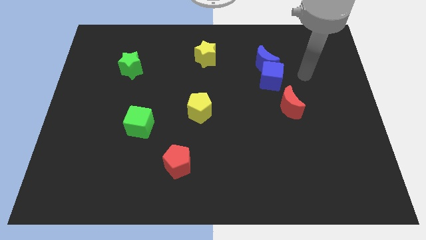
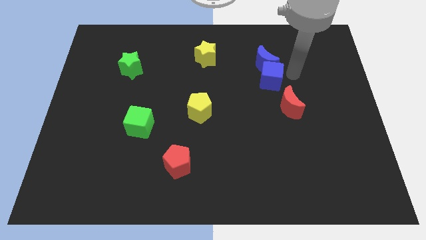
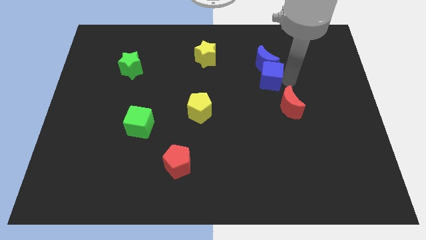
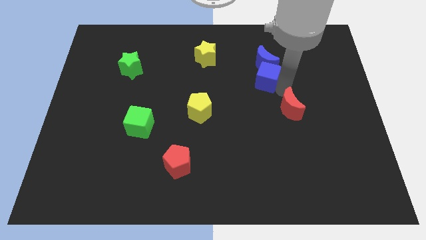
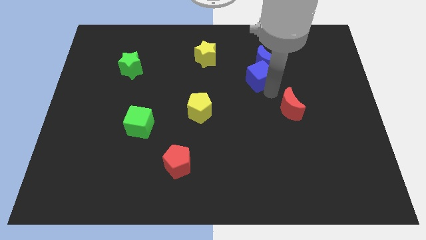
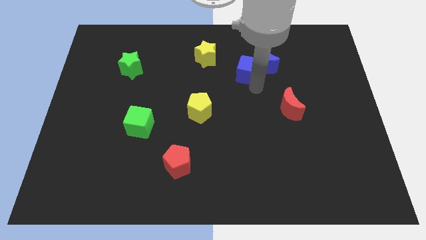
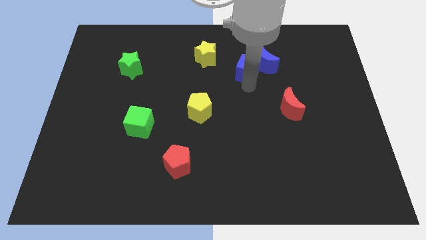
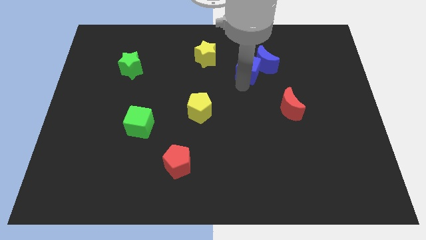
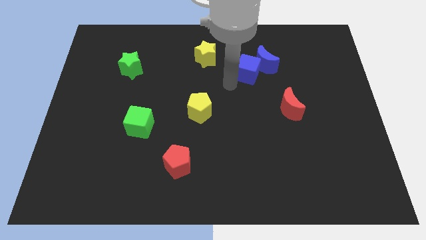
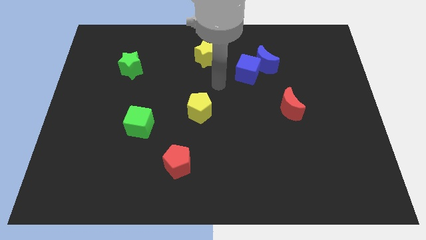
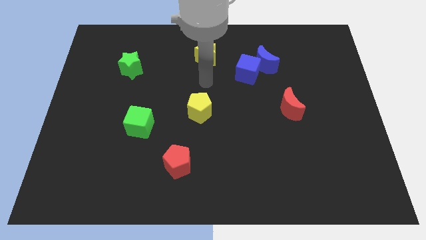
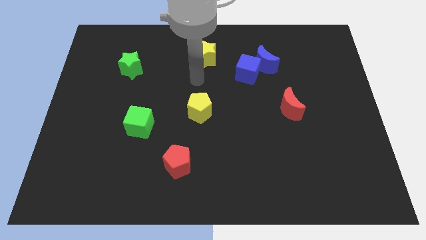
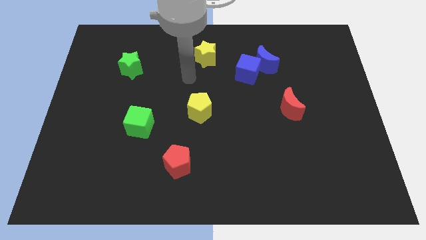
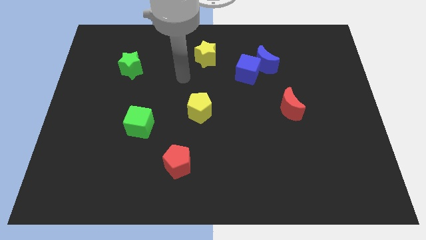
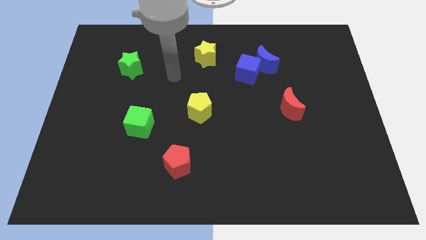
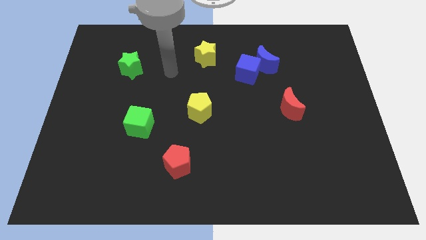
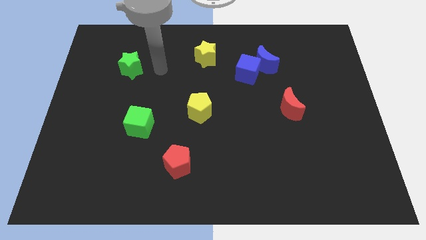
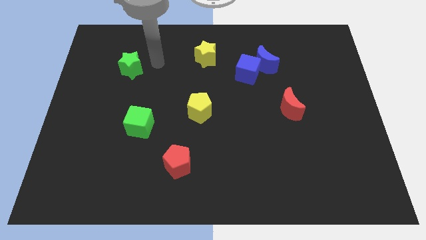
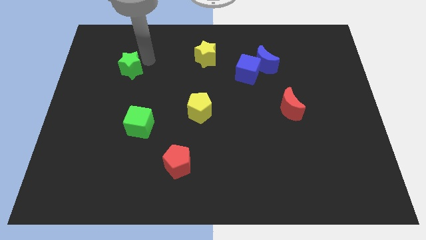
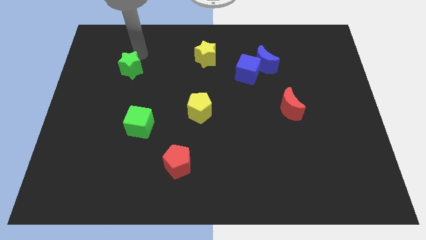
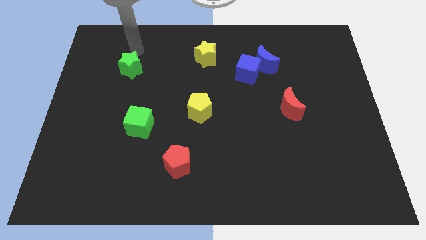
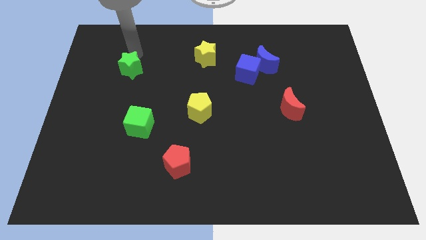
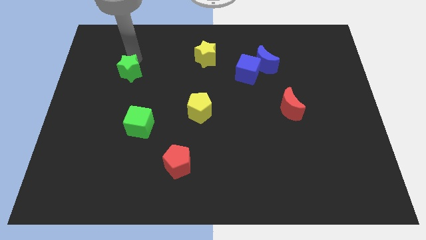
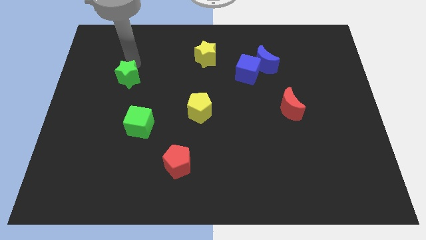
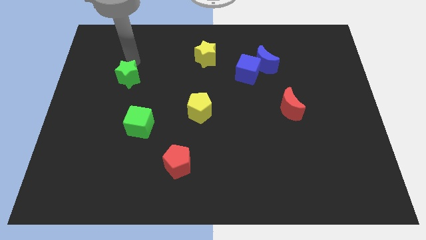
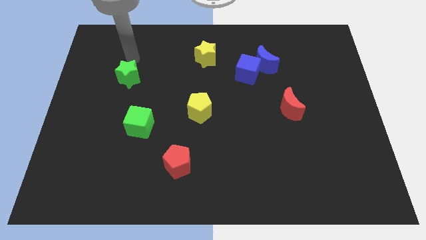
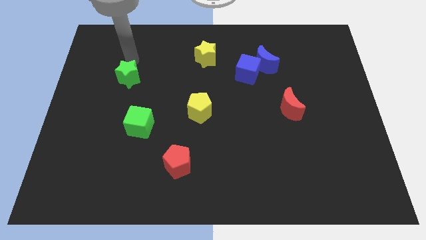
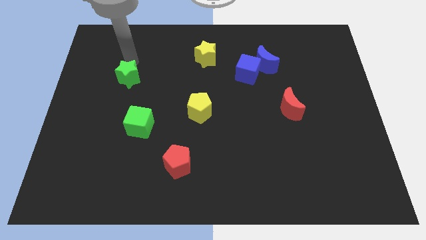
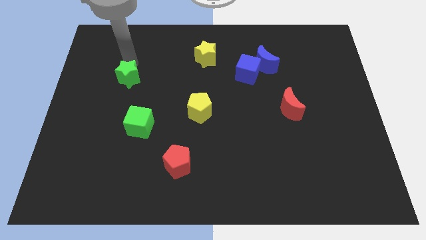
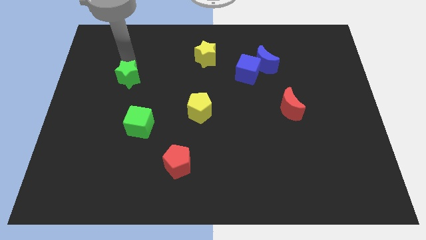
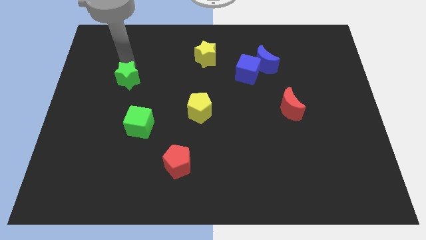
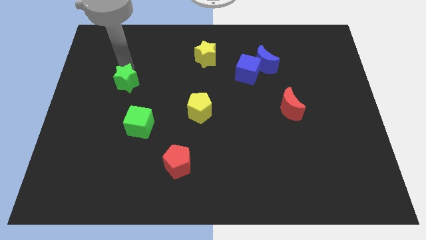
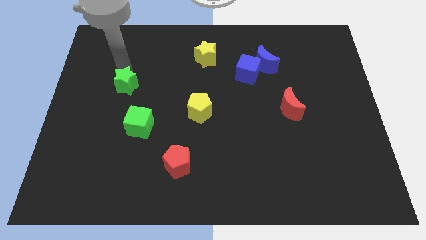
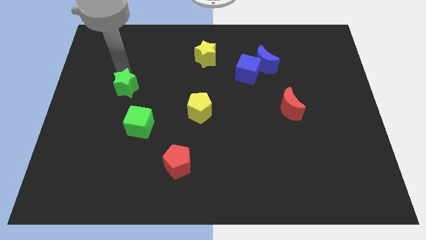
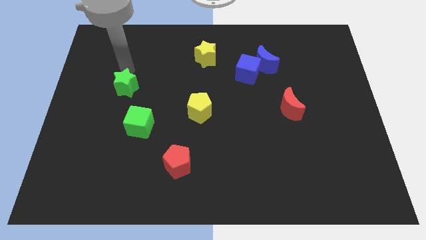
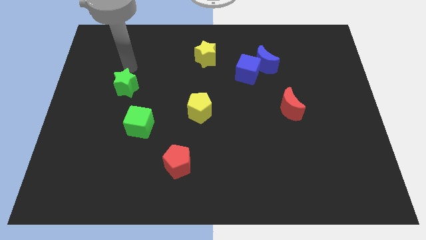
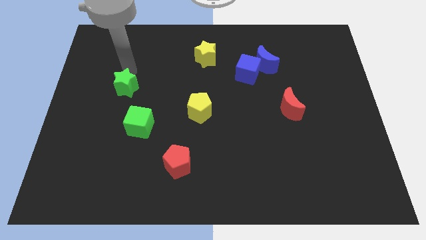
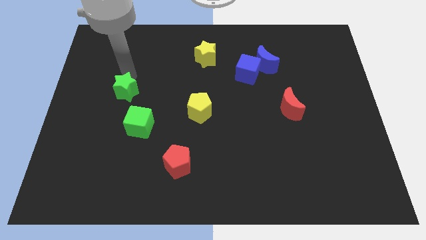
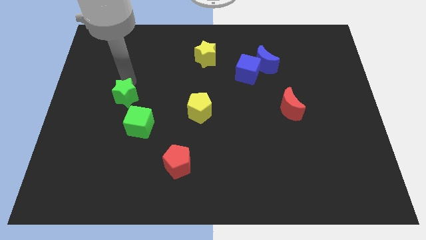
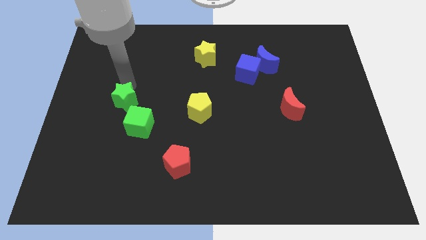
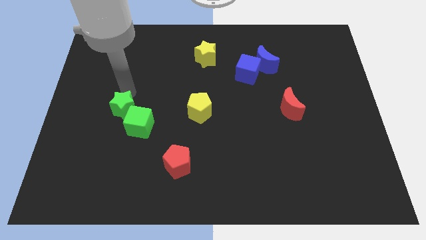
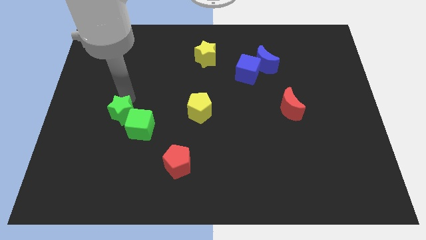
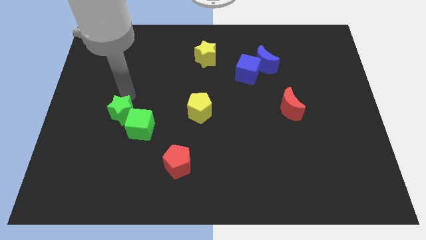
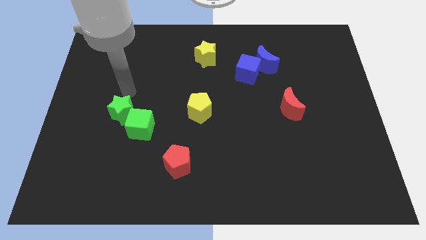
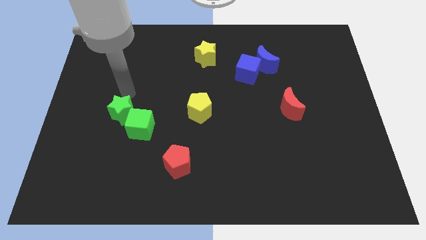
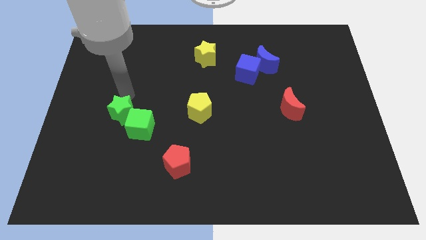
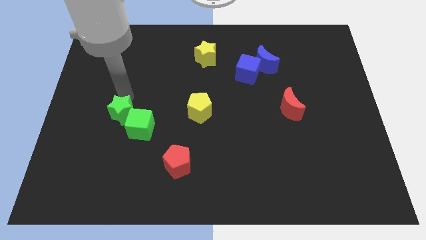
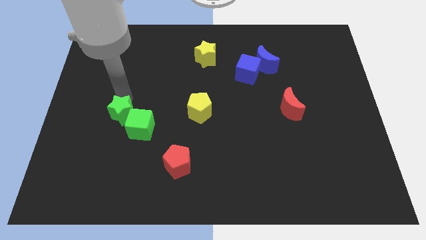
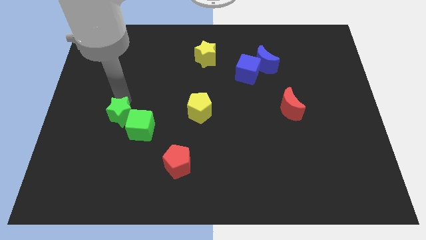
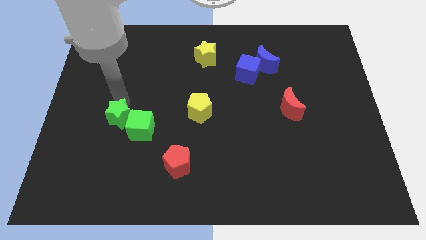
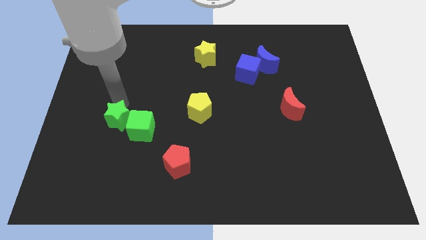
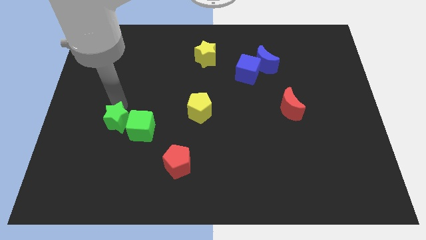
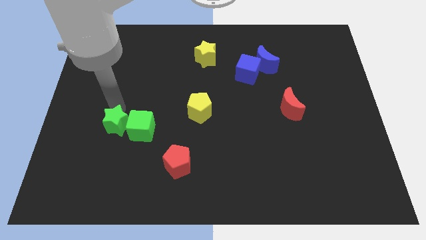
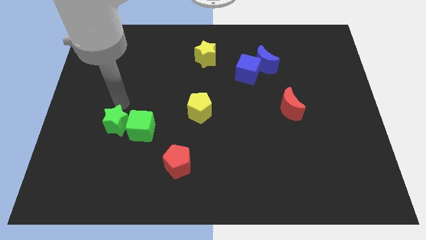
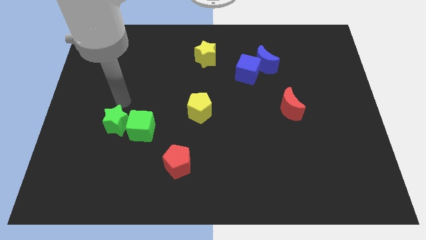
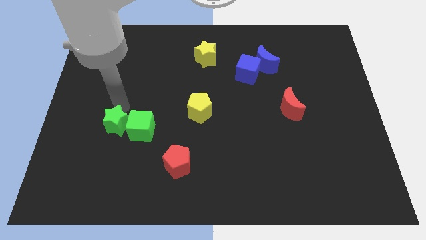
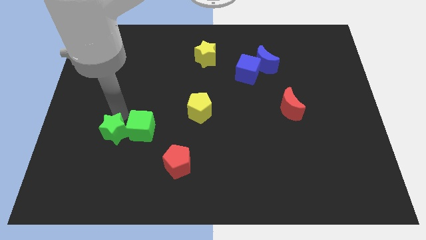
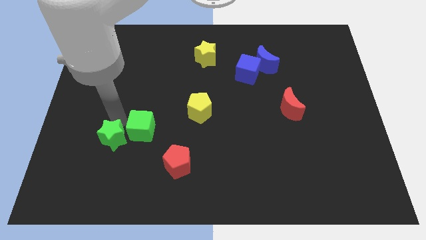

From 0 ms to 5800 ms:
move the green star downwards

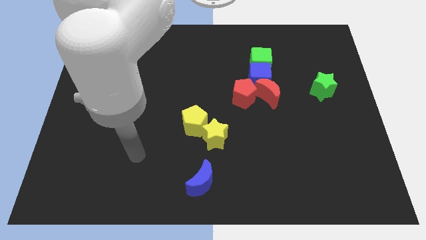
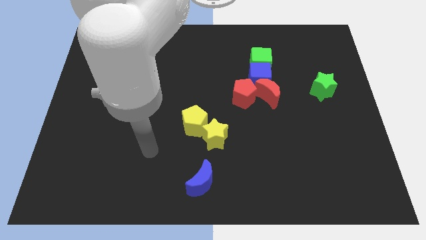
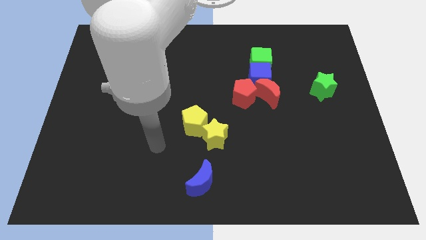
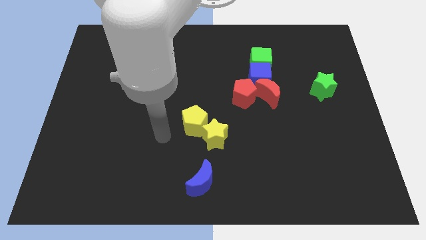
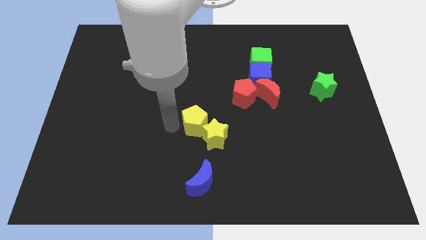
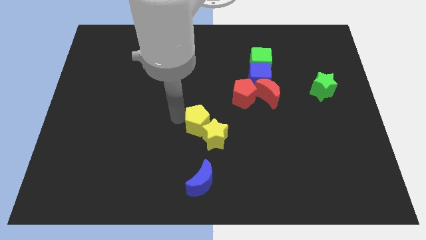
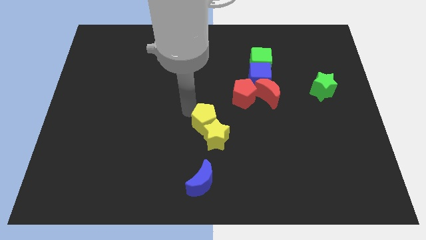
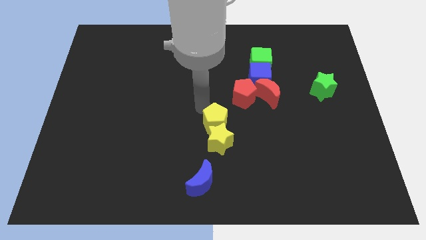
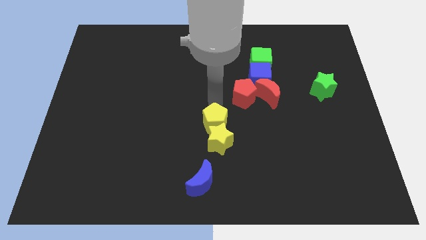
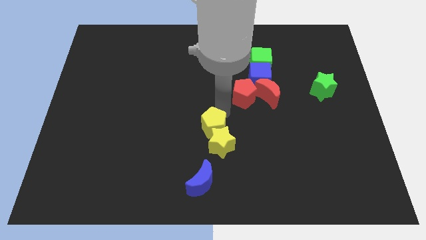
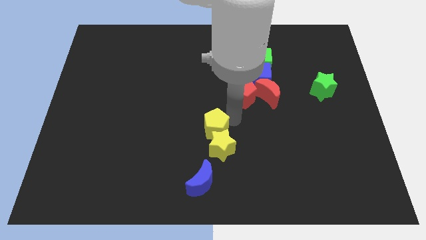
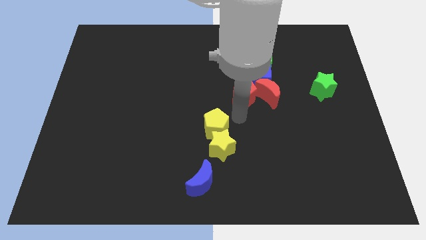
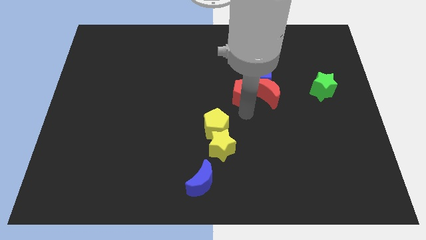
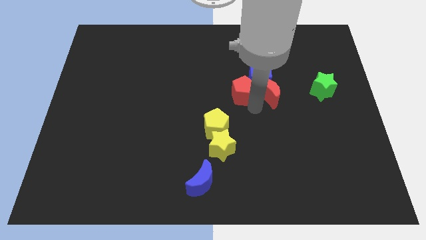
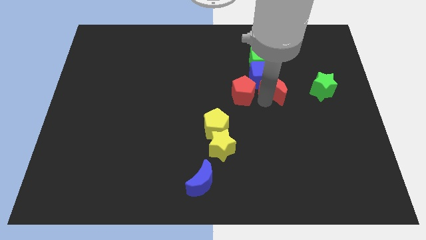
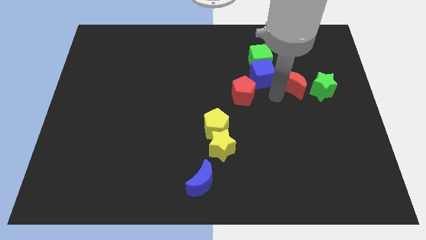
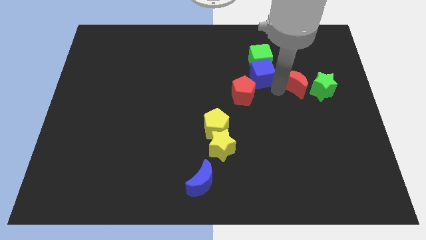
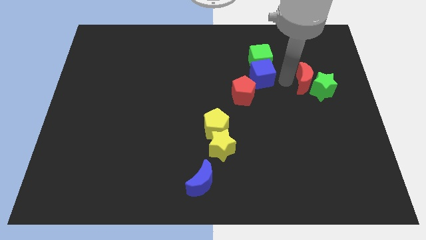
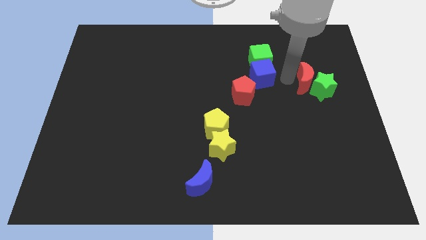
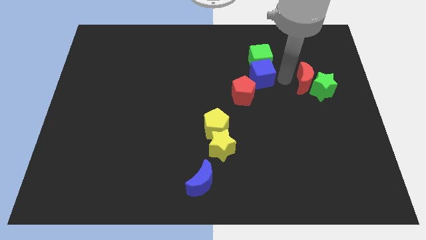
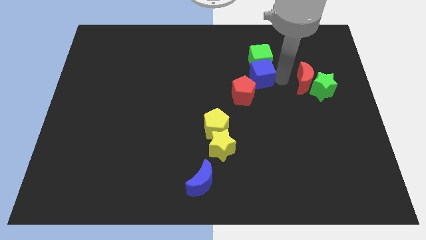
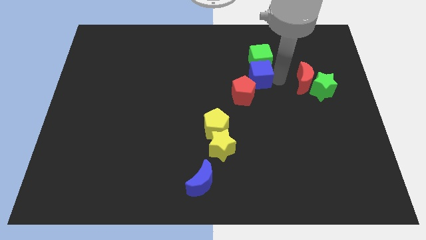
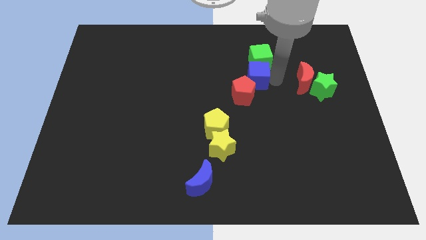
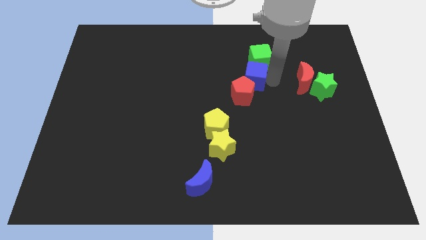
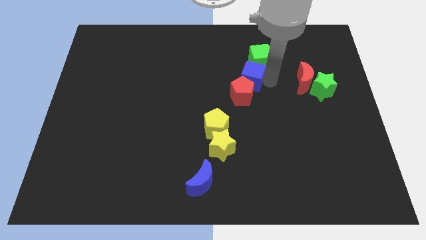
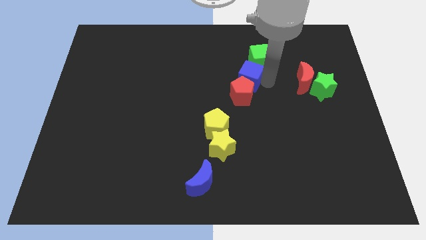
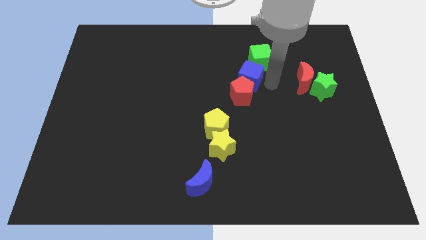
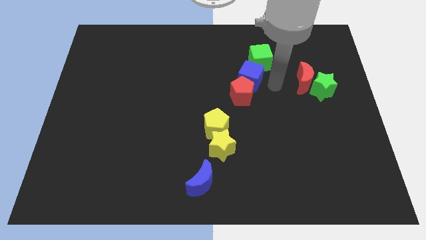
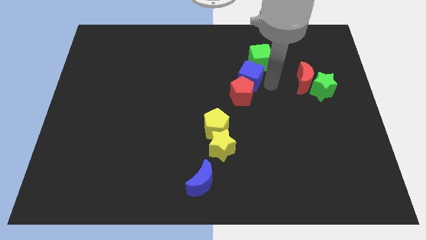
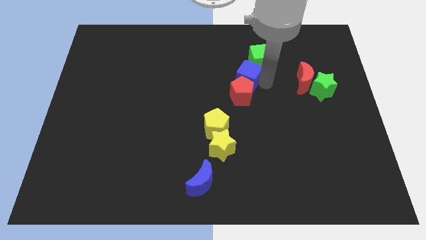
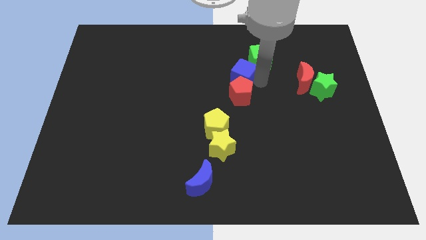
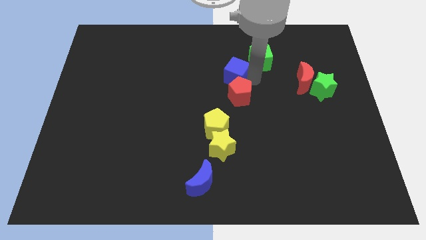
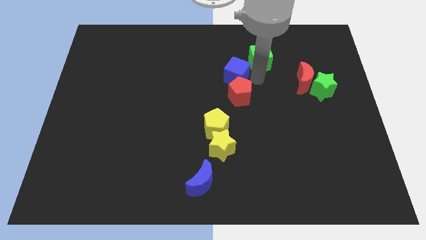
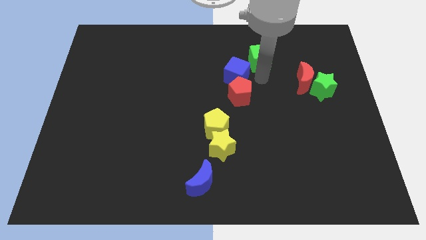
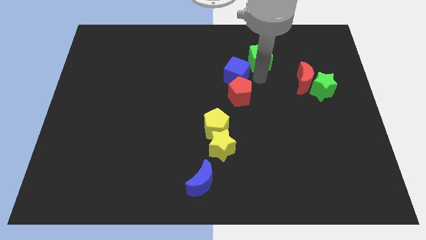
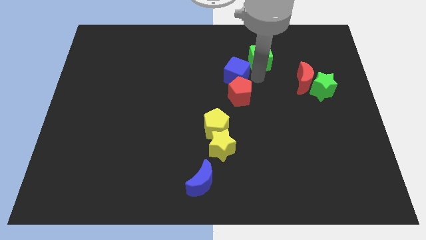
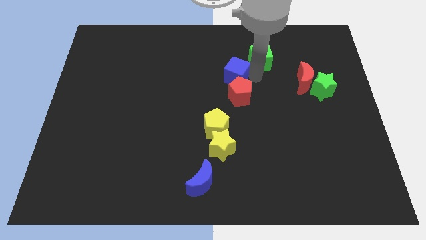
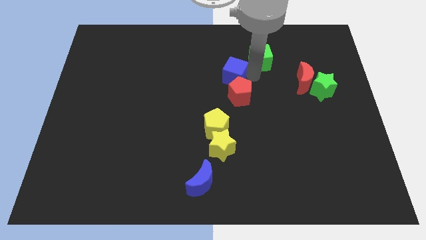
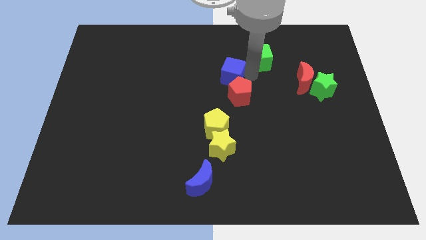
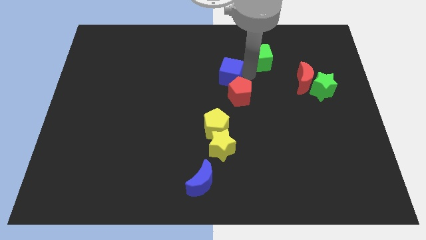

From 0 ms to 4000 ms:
slightly slide the blue cube to the left
